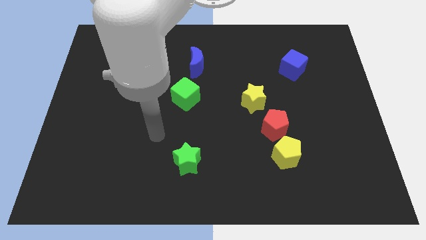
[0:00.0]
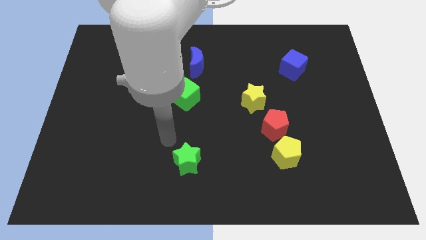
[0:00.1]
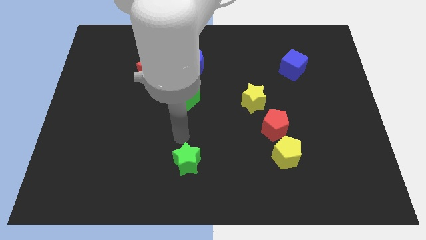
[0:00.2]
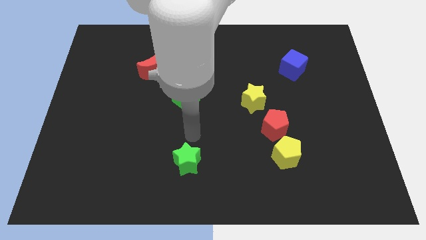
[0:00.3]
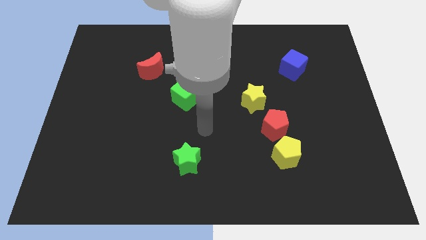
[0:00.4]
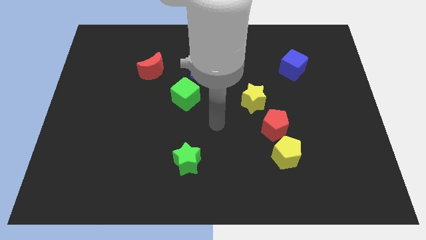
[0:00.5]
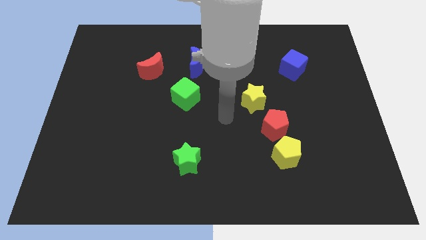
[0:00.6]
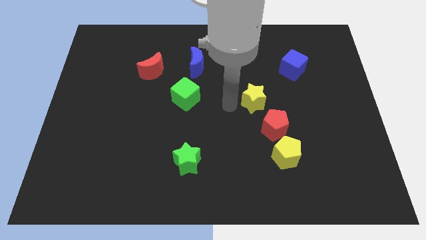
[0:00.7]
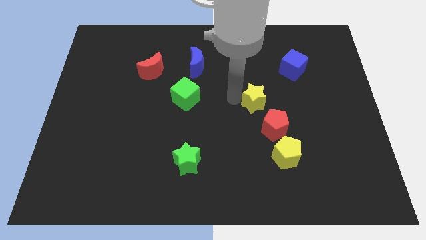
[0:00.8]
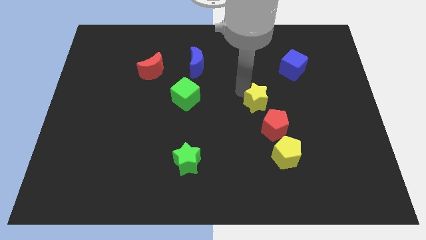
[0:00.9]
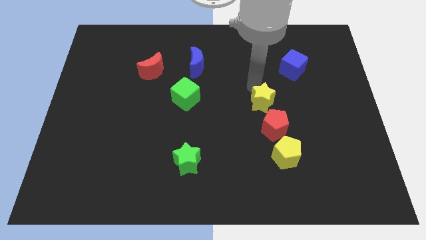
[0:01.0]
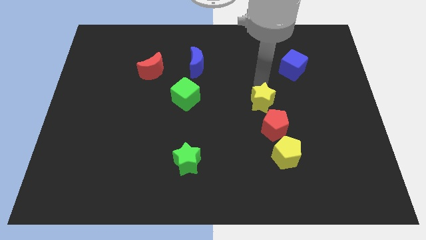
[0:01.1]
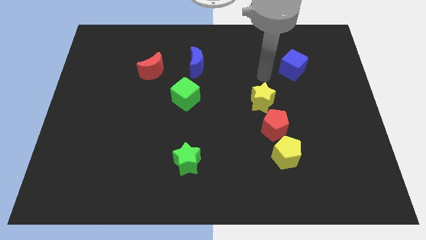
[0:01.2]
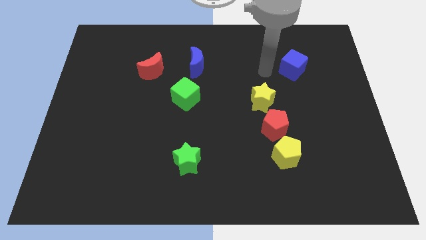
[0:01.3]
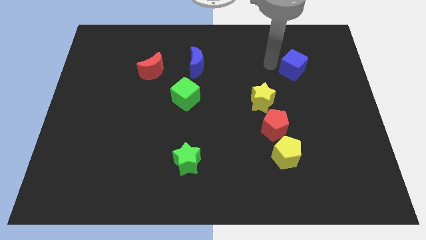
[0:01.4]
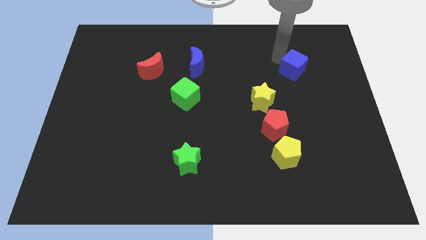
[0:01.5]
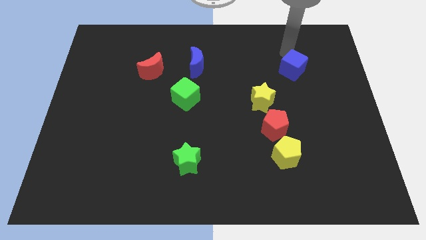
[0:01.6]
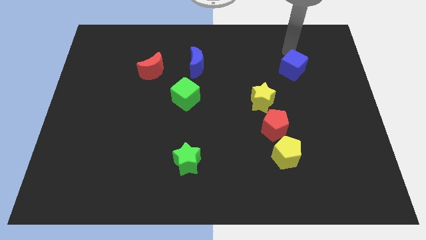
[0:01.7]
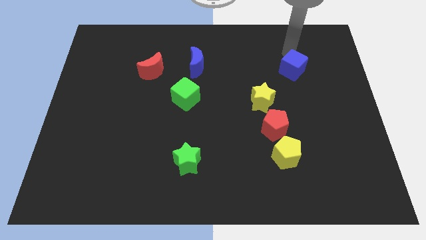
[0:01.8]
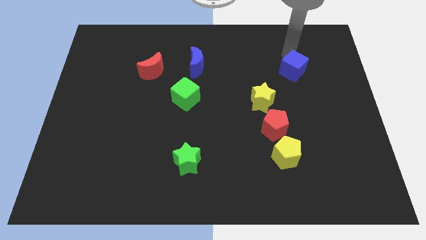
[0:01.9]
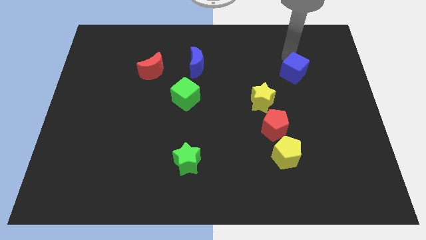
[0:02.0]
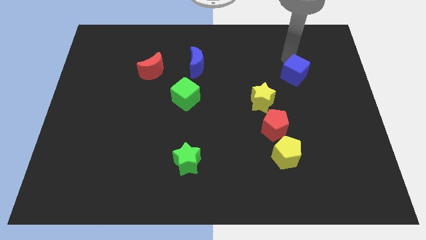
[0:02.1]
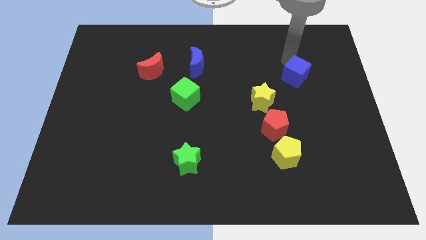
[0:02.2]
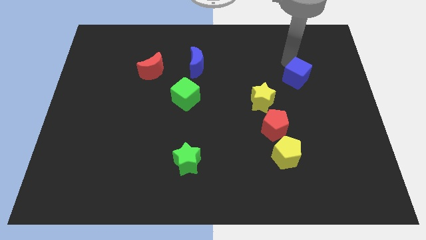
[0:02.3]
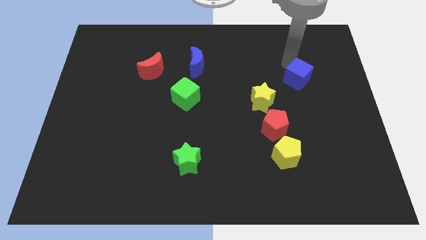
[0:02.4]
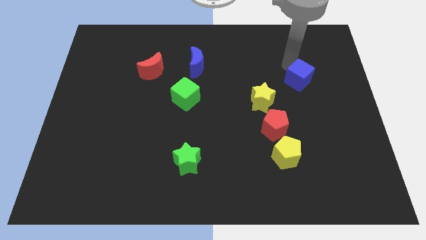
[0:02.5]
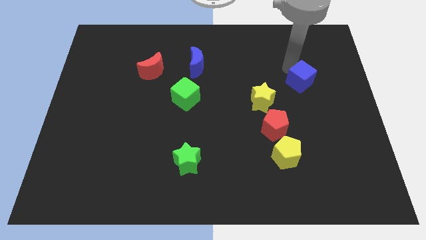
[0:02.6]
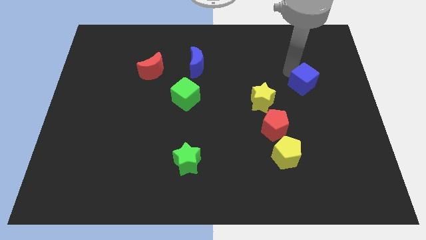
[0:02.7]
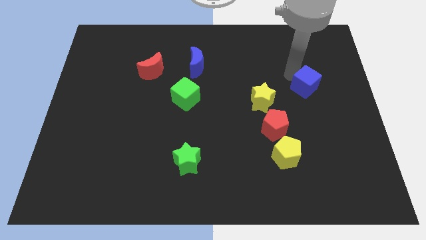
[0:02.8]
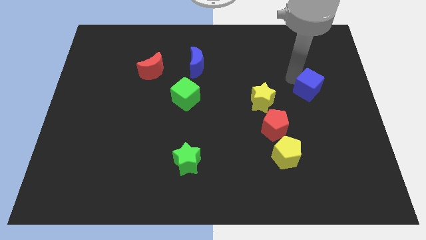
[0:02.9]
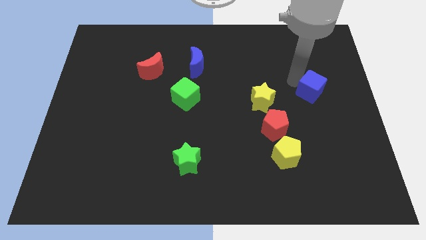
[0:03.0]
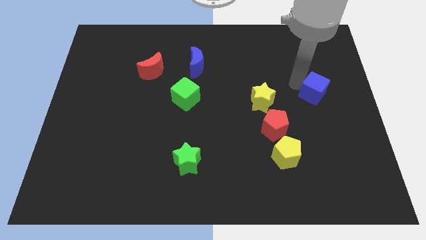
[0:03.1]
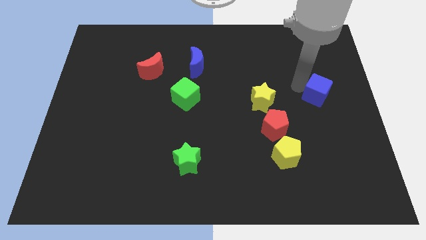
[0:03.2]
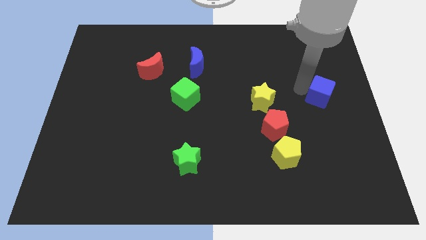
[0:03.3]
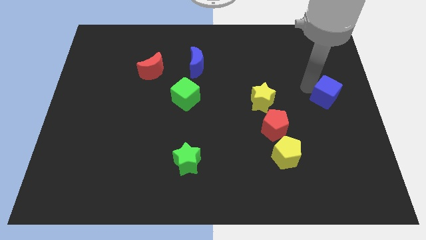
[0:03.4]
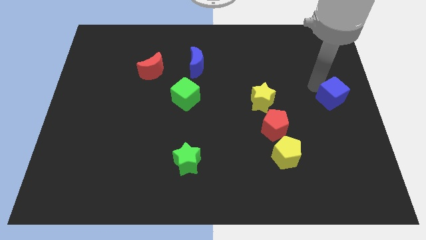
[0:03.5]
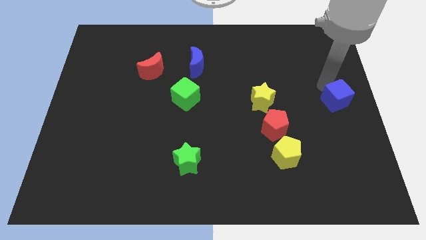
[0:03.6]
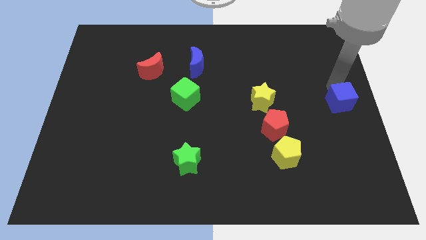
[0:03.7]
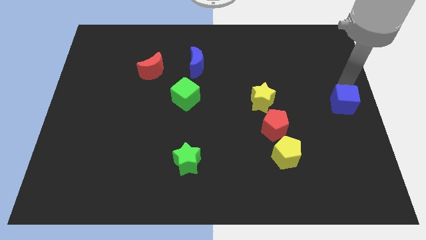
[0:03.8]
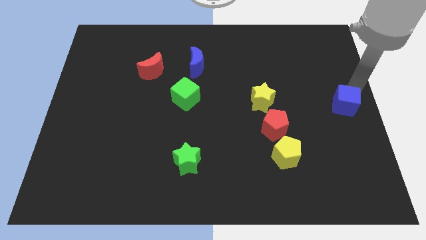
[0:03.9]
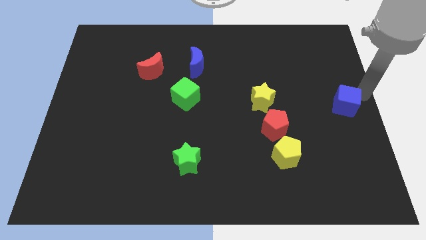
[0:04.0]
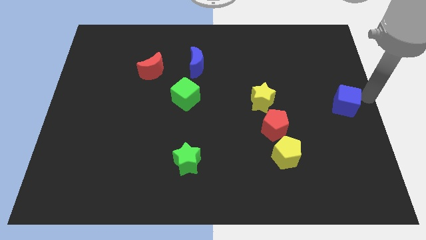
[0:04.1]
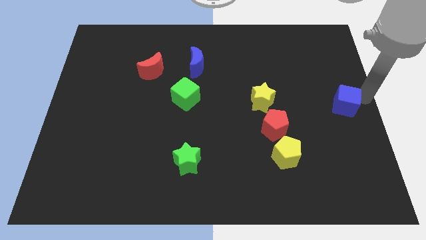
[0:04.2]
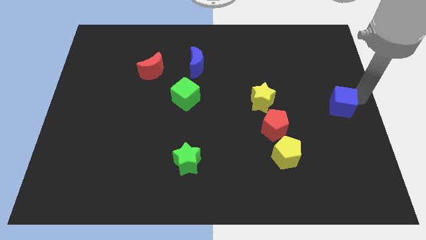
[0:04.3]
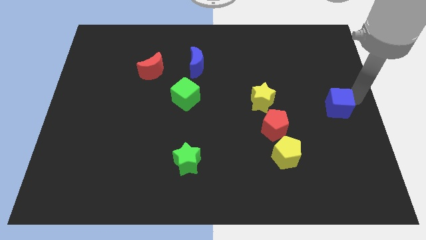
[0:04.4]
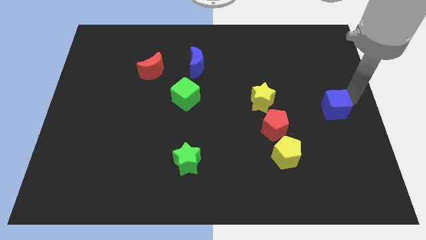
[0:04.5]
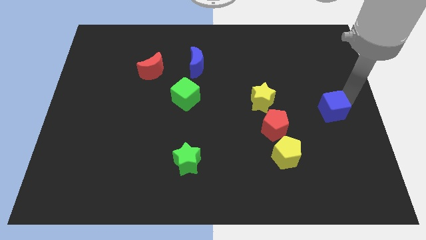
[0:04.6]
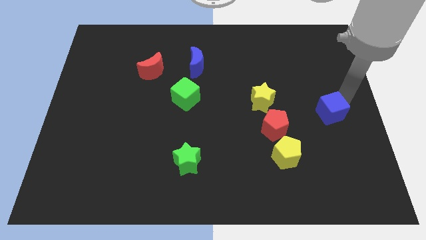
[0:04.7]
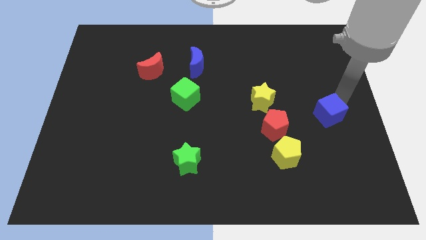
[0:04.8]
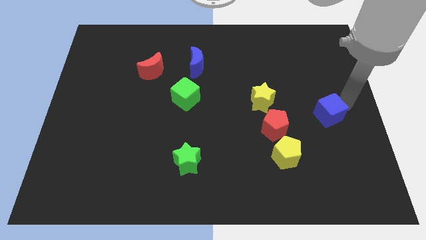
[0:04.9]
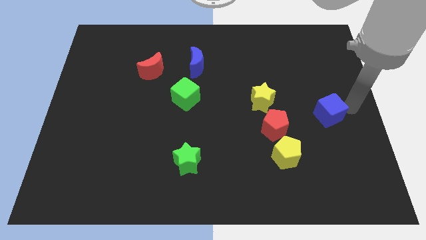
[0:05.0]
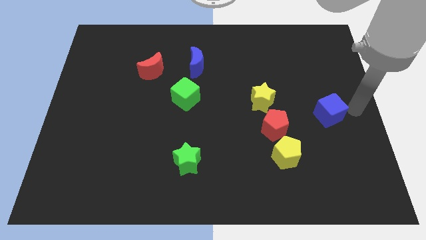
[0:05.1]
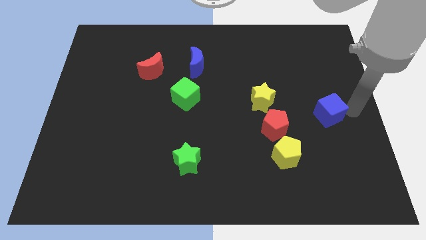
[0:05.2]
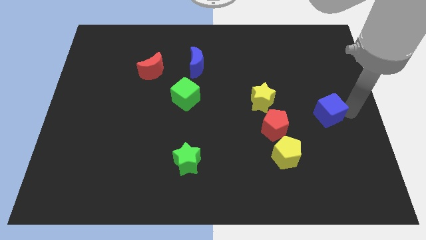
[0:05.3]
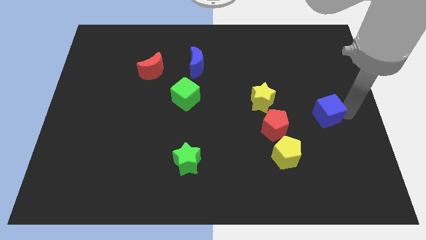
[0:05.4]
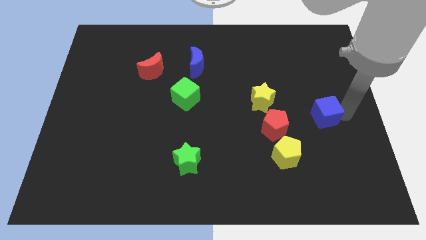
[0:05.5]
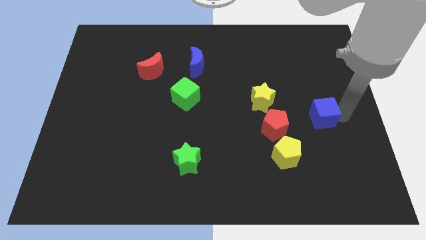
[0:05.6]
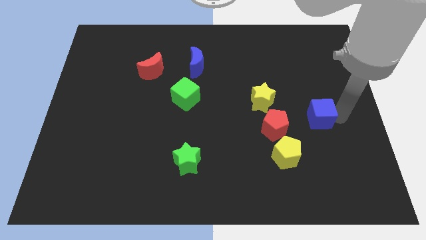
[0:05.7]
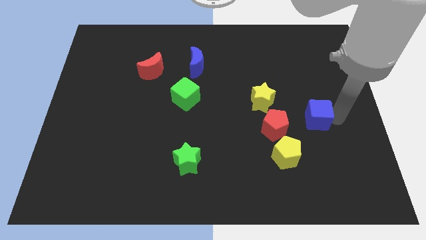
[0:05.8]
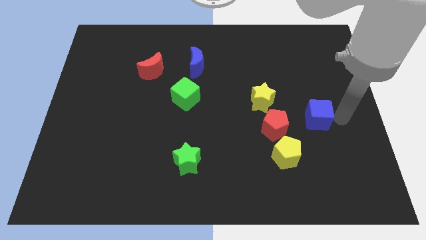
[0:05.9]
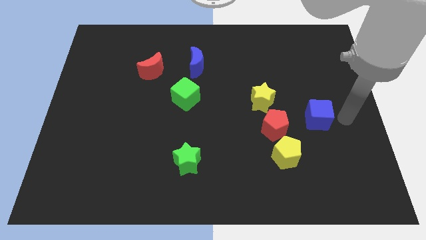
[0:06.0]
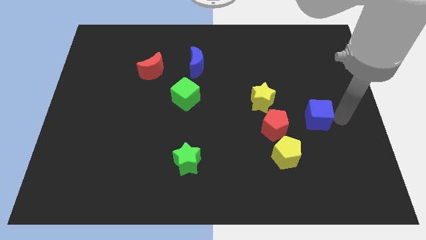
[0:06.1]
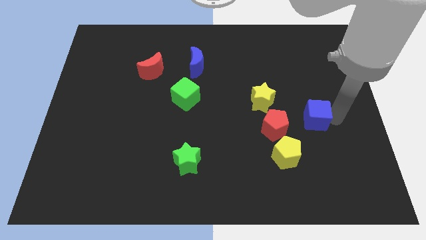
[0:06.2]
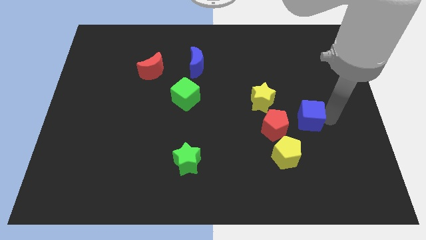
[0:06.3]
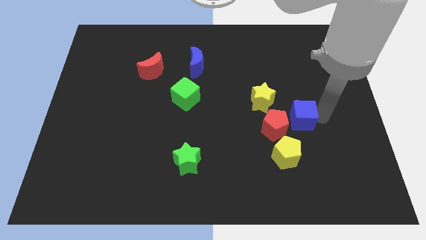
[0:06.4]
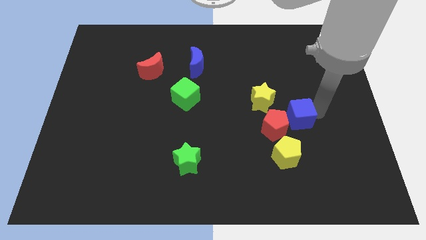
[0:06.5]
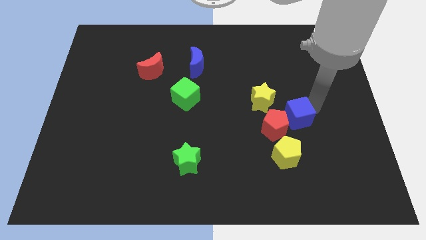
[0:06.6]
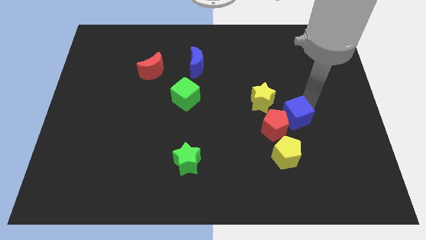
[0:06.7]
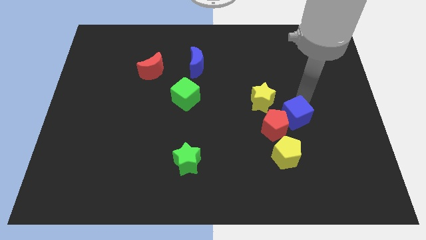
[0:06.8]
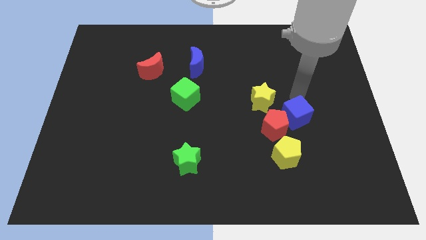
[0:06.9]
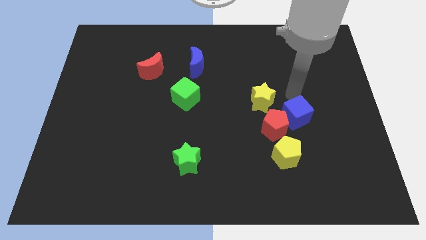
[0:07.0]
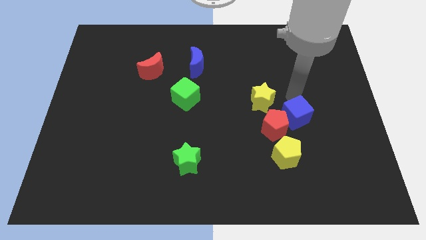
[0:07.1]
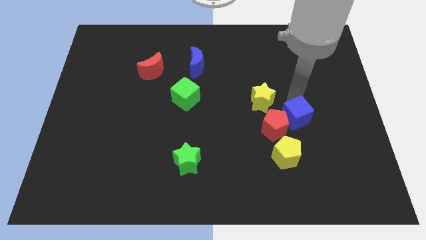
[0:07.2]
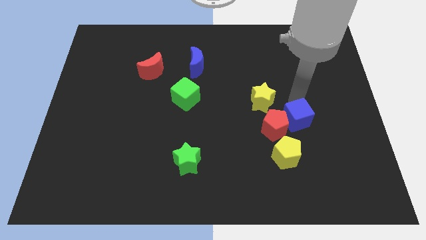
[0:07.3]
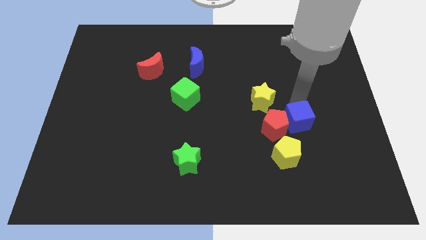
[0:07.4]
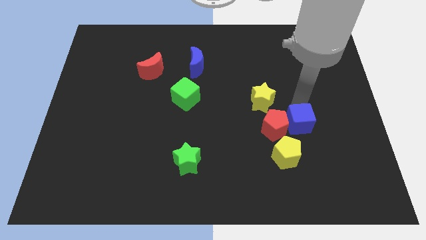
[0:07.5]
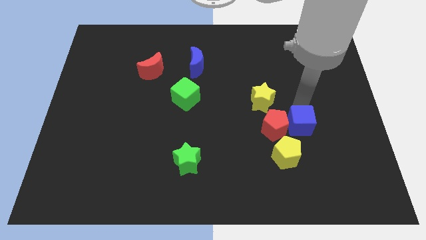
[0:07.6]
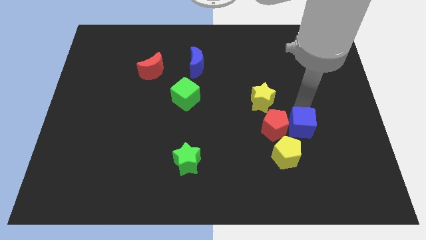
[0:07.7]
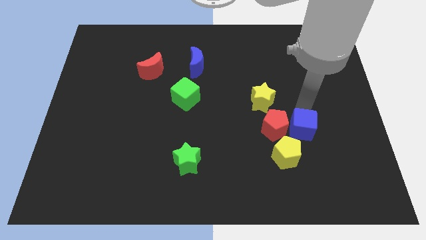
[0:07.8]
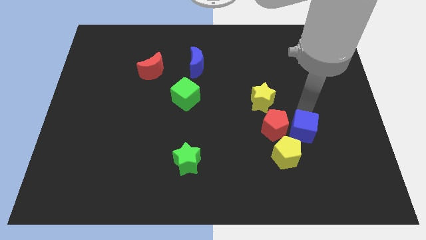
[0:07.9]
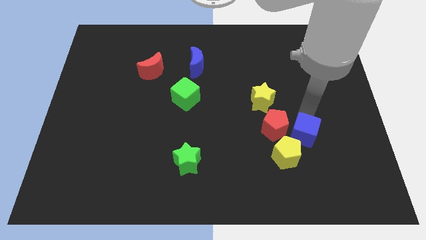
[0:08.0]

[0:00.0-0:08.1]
push the blue cube downwards
